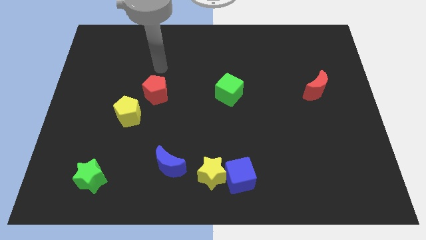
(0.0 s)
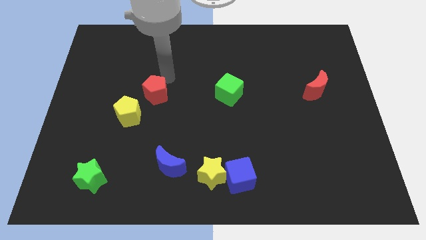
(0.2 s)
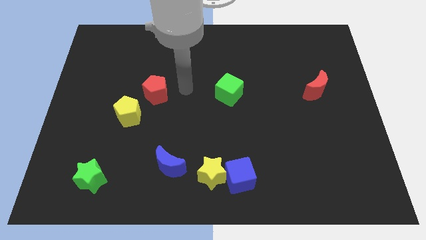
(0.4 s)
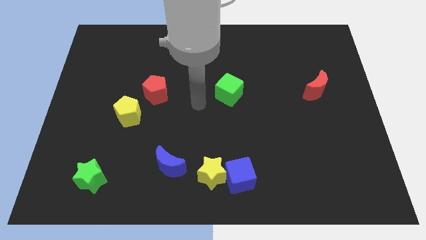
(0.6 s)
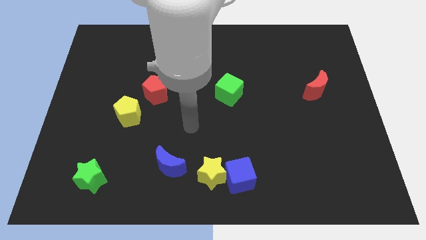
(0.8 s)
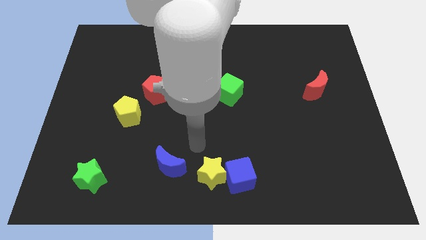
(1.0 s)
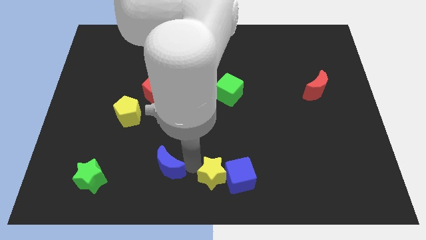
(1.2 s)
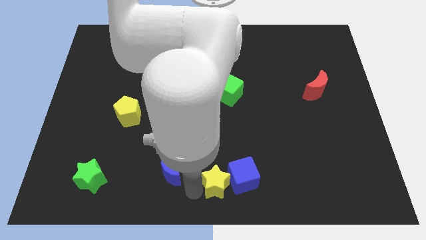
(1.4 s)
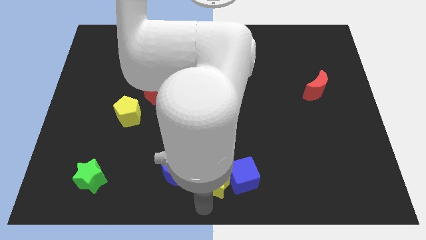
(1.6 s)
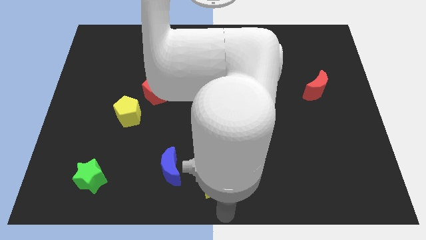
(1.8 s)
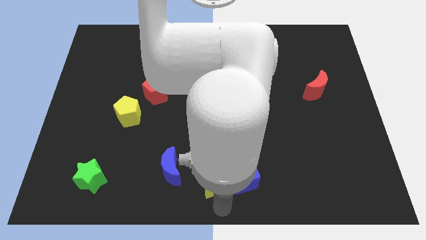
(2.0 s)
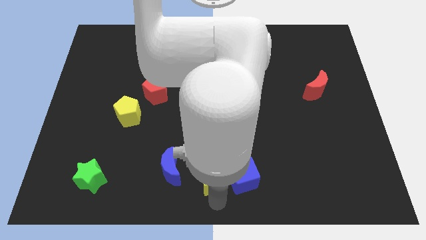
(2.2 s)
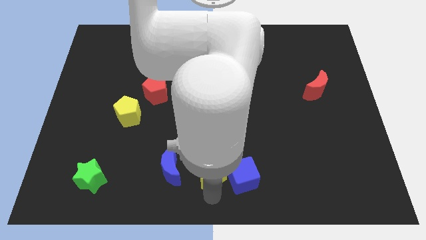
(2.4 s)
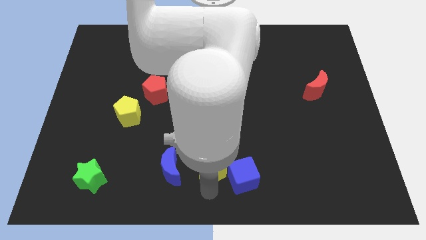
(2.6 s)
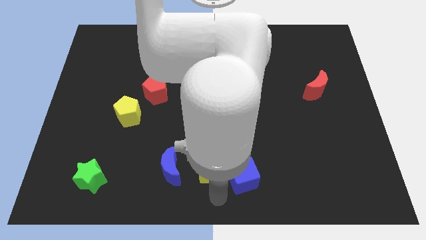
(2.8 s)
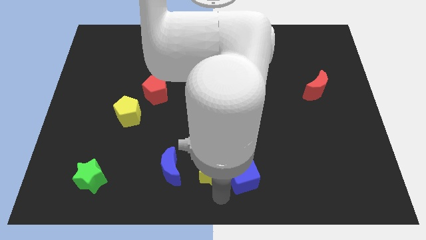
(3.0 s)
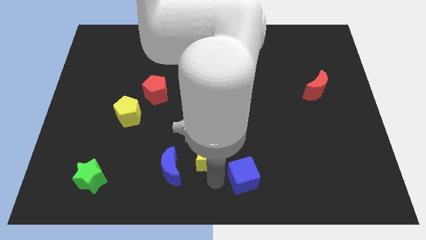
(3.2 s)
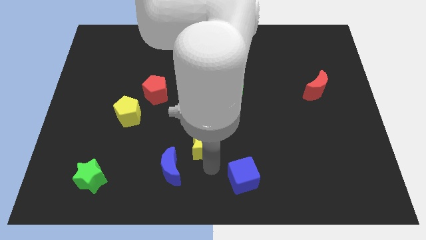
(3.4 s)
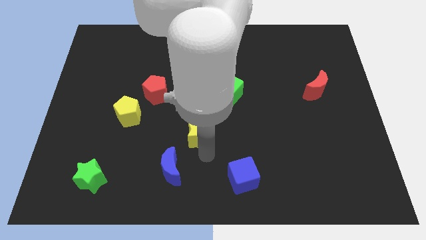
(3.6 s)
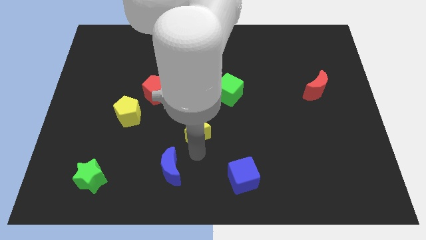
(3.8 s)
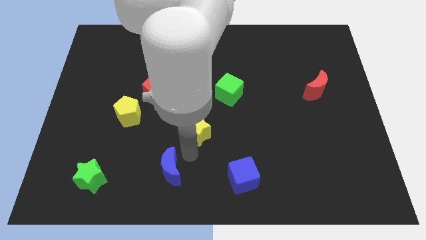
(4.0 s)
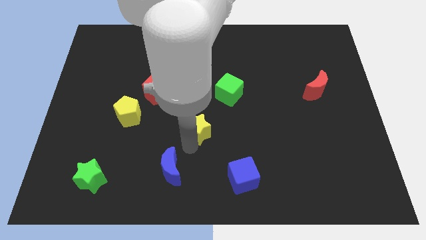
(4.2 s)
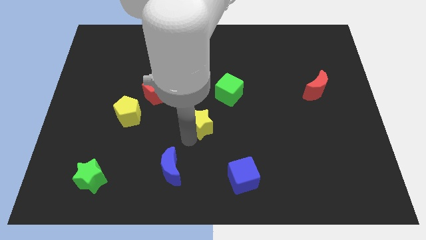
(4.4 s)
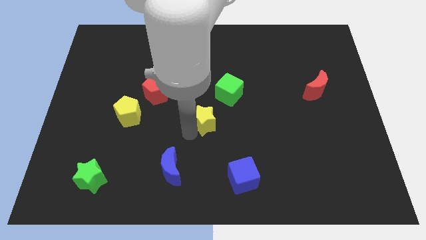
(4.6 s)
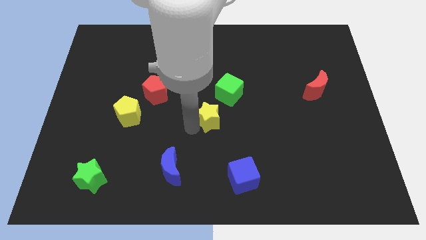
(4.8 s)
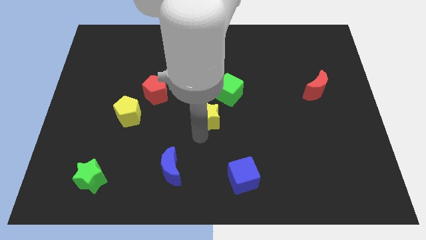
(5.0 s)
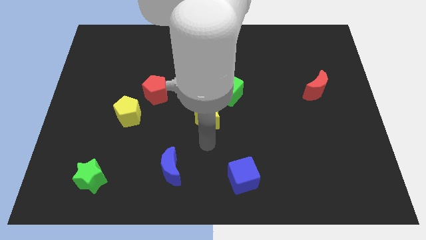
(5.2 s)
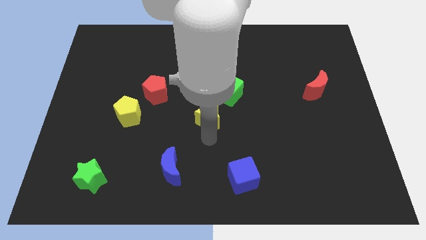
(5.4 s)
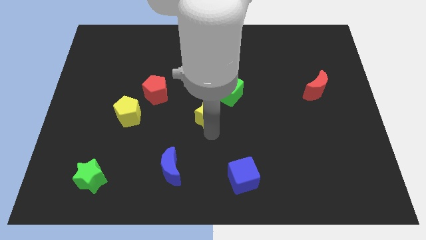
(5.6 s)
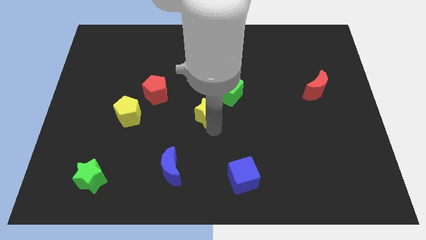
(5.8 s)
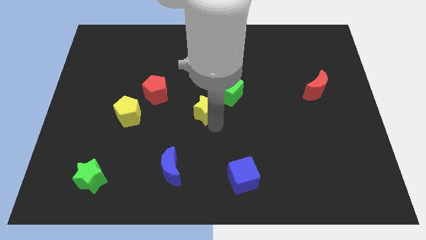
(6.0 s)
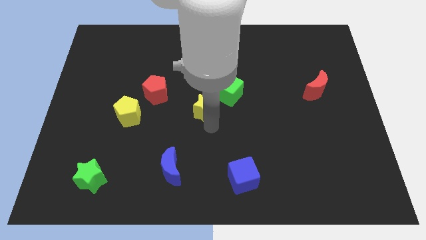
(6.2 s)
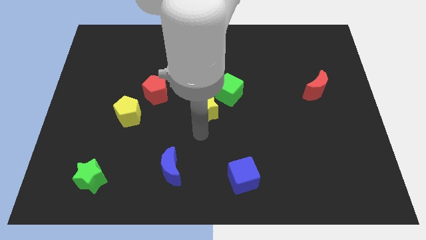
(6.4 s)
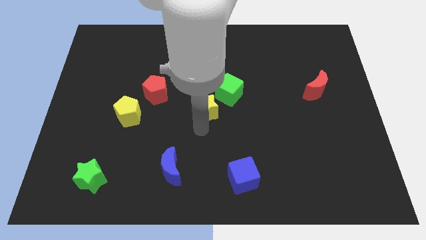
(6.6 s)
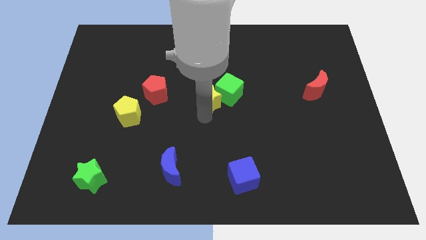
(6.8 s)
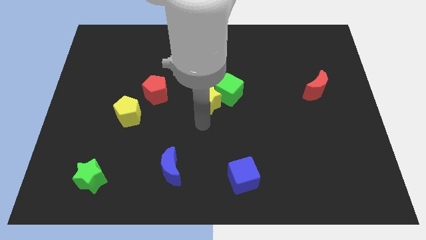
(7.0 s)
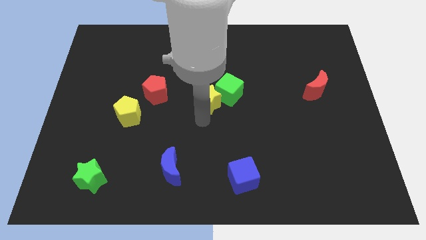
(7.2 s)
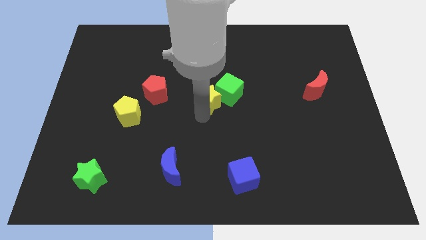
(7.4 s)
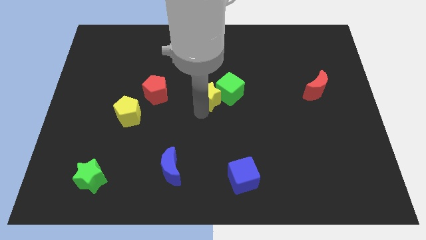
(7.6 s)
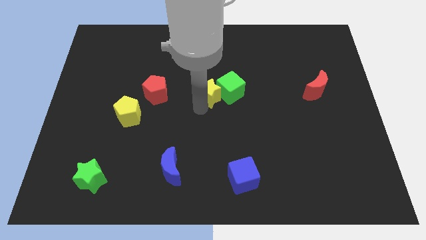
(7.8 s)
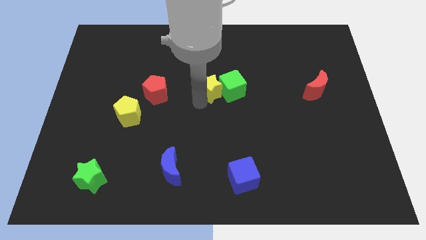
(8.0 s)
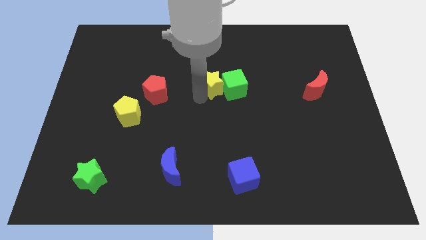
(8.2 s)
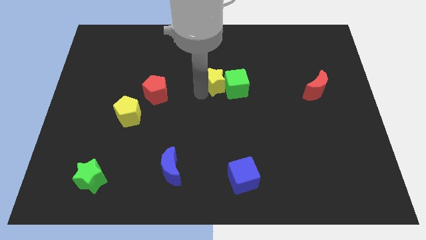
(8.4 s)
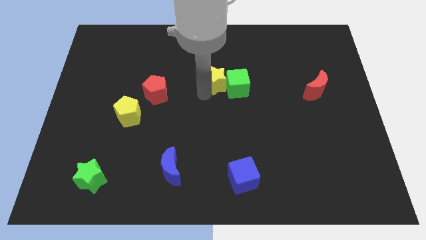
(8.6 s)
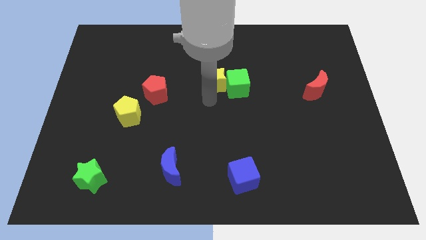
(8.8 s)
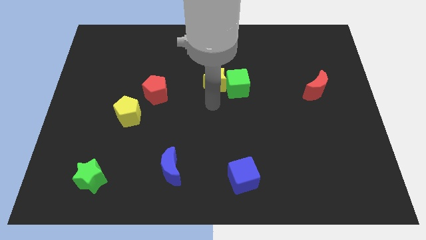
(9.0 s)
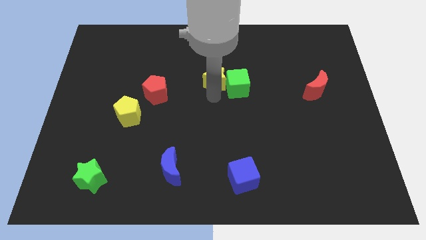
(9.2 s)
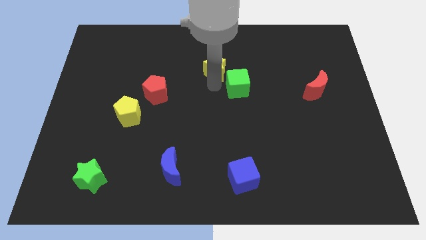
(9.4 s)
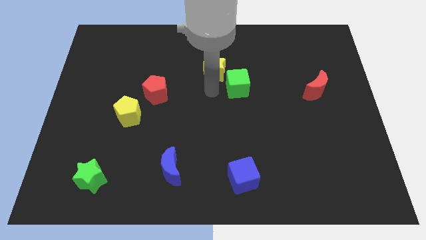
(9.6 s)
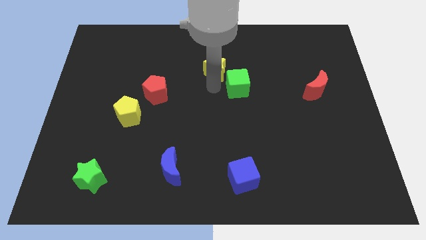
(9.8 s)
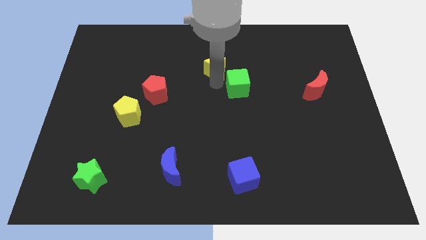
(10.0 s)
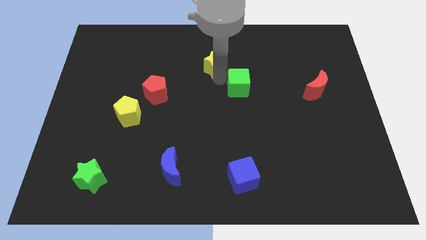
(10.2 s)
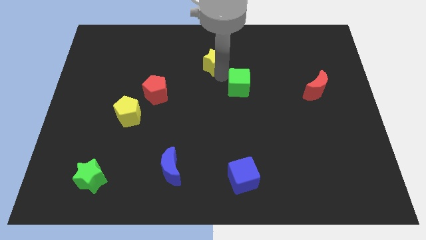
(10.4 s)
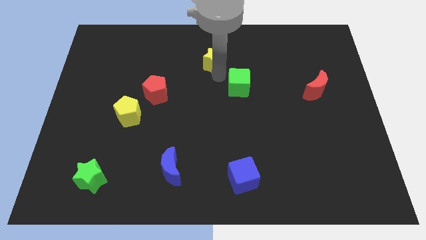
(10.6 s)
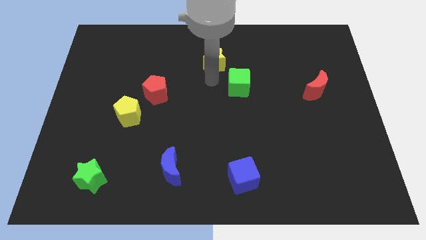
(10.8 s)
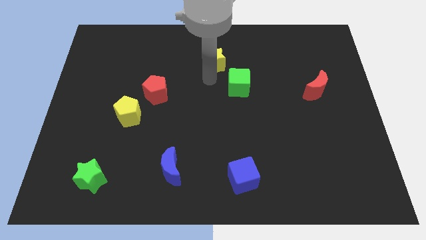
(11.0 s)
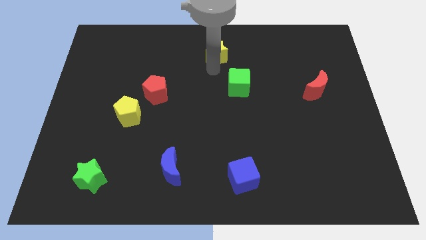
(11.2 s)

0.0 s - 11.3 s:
put the yellow star to the top

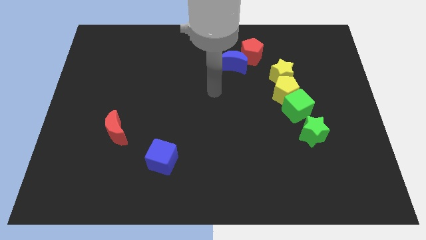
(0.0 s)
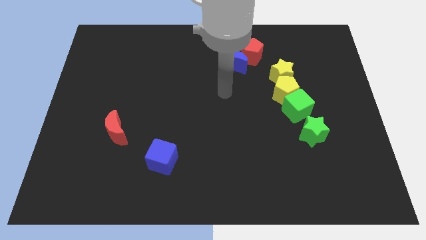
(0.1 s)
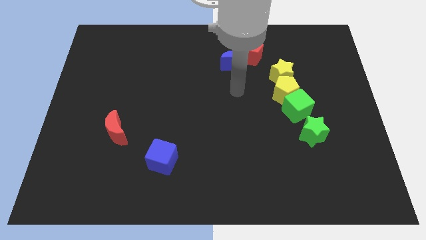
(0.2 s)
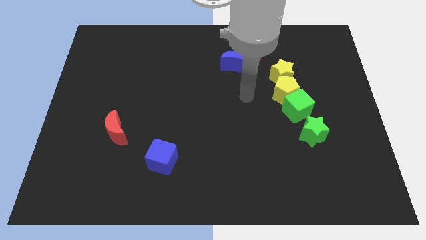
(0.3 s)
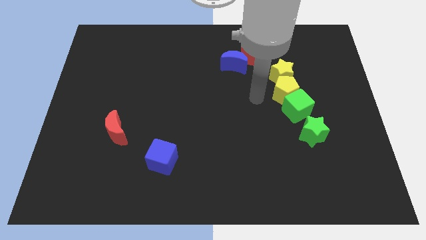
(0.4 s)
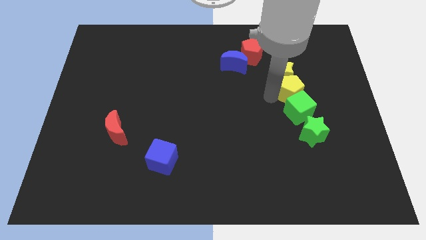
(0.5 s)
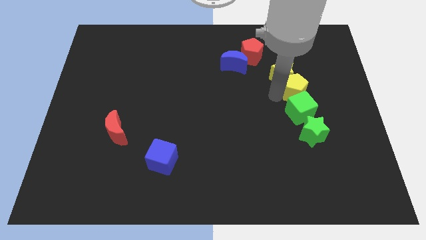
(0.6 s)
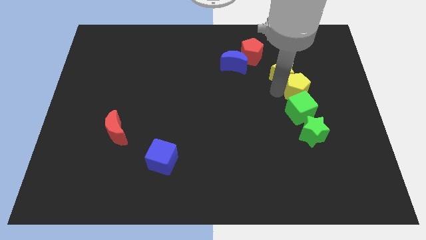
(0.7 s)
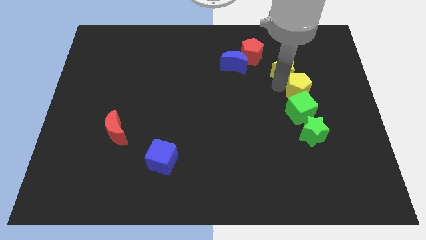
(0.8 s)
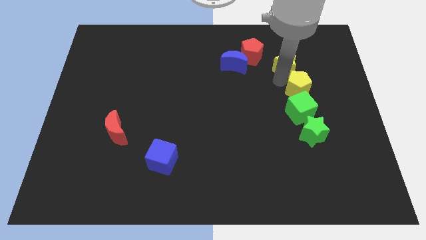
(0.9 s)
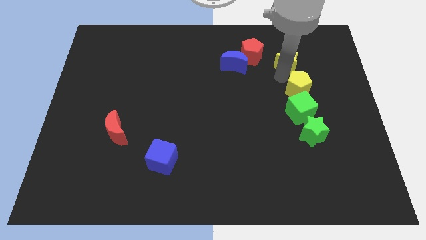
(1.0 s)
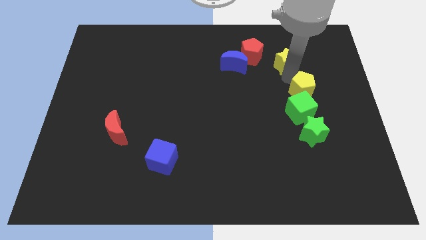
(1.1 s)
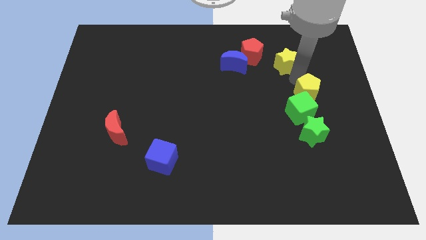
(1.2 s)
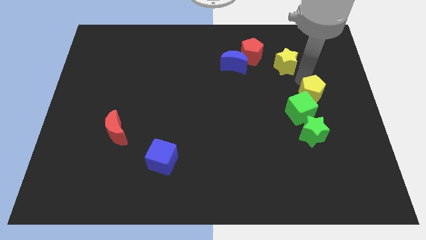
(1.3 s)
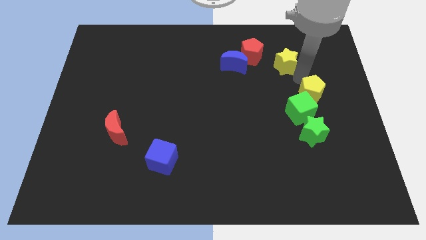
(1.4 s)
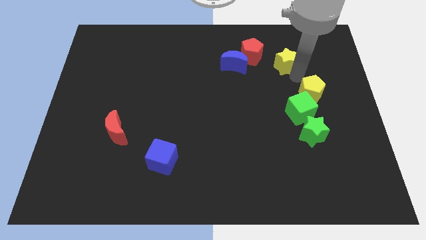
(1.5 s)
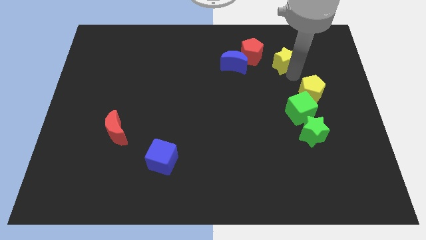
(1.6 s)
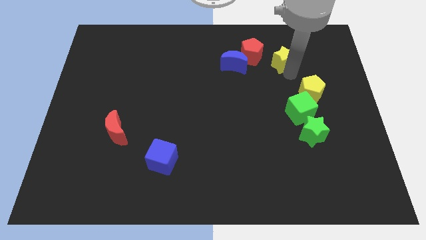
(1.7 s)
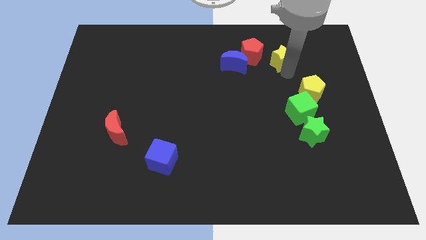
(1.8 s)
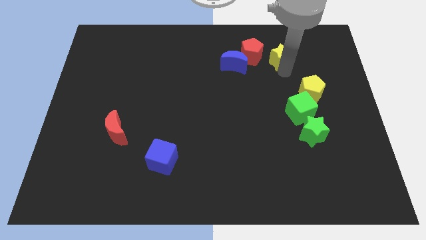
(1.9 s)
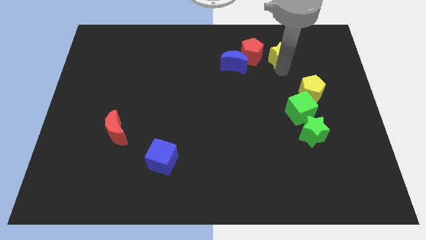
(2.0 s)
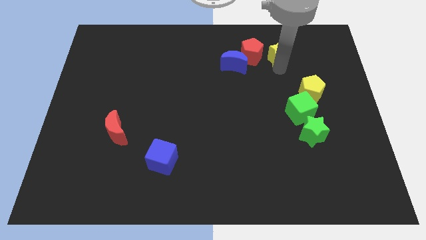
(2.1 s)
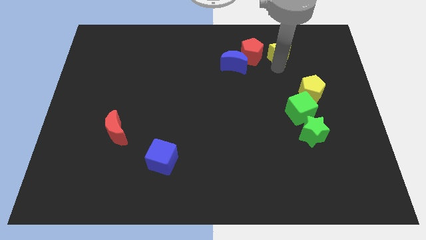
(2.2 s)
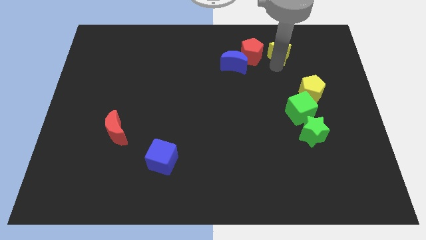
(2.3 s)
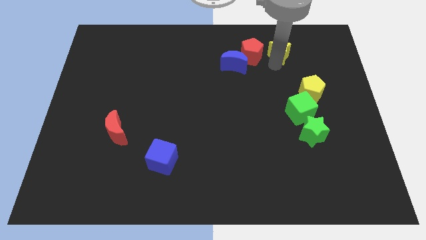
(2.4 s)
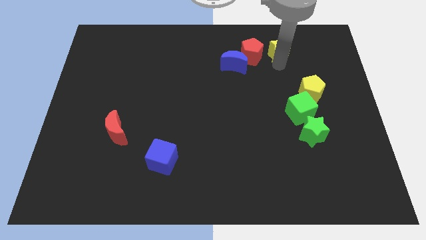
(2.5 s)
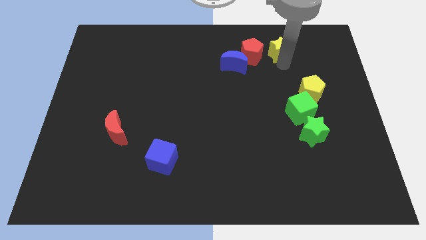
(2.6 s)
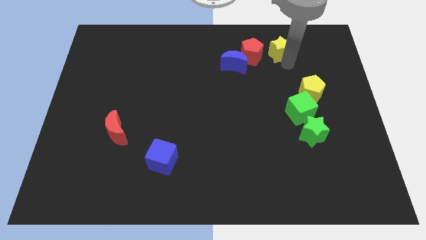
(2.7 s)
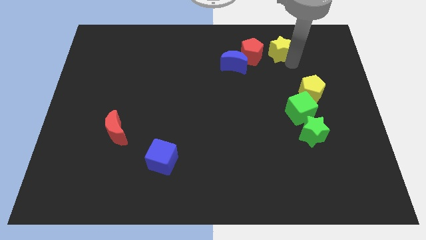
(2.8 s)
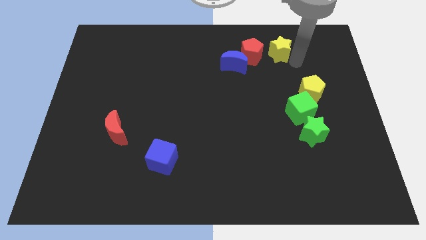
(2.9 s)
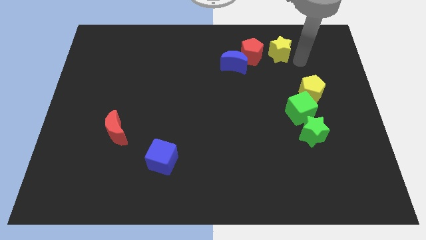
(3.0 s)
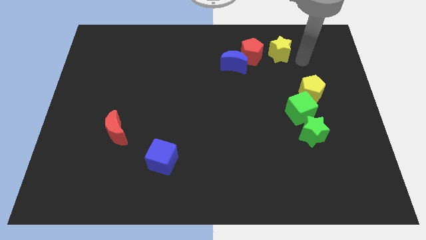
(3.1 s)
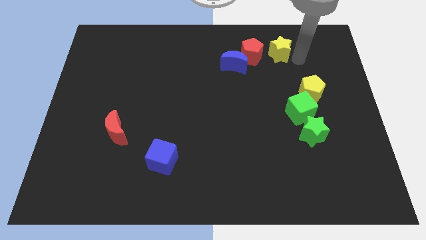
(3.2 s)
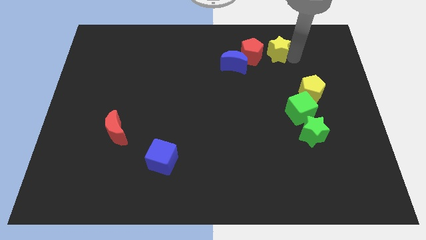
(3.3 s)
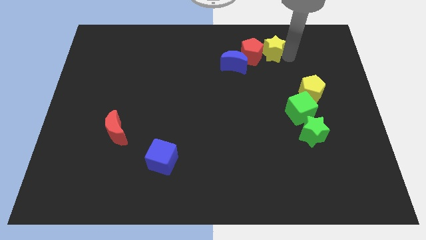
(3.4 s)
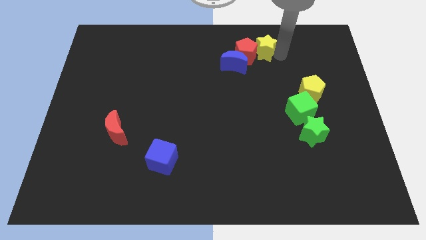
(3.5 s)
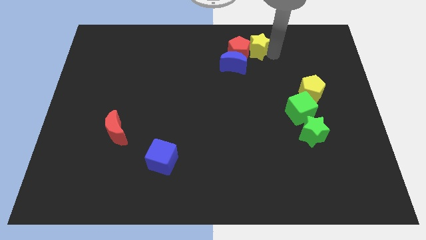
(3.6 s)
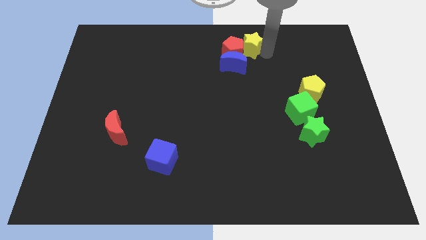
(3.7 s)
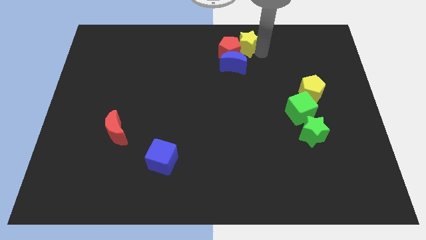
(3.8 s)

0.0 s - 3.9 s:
slide the yellow star to the top
